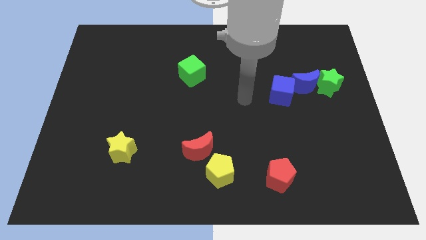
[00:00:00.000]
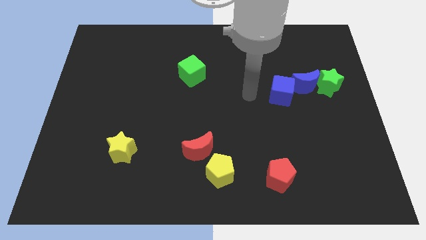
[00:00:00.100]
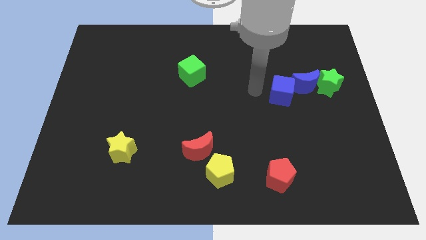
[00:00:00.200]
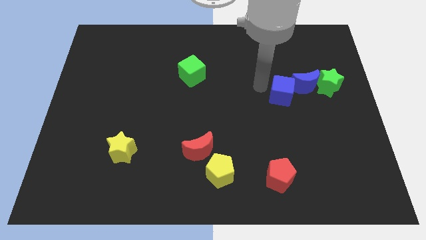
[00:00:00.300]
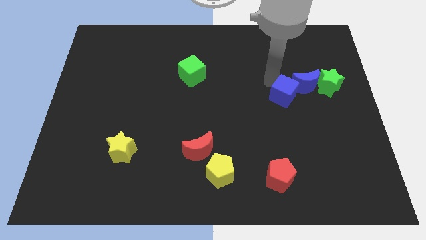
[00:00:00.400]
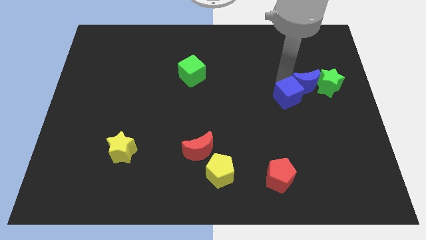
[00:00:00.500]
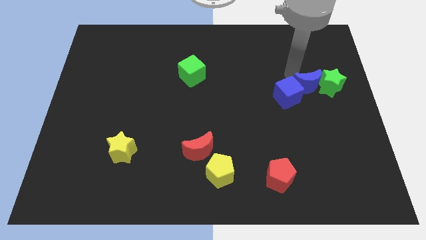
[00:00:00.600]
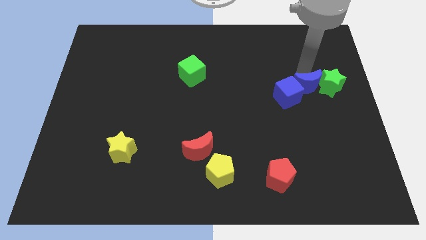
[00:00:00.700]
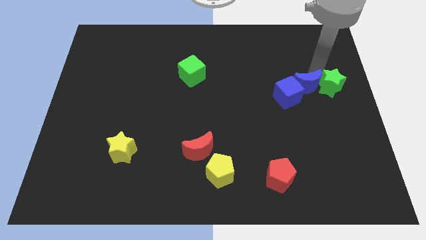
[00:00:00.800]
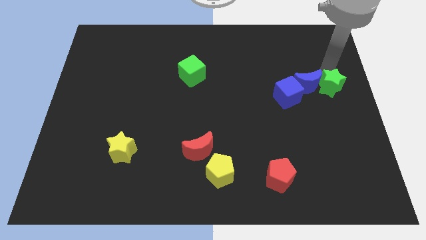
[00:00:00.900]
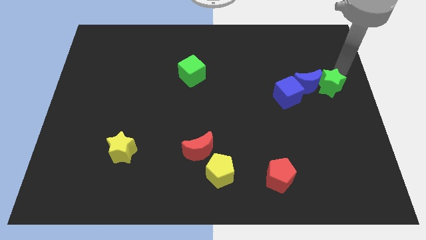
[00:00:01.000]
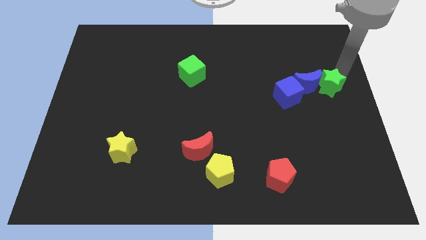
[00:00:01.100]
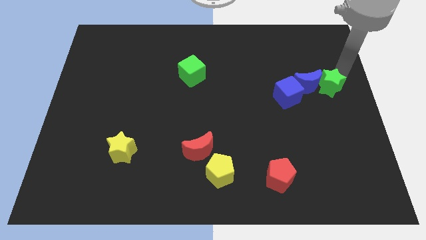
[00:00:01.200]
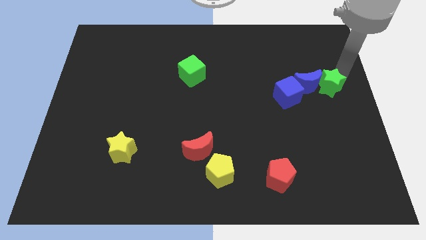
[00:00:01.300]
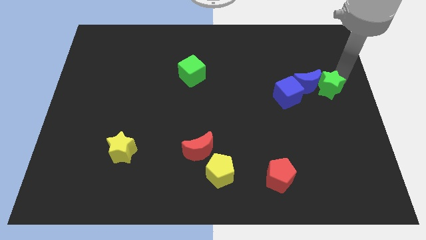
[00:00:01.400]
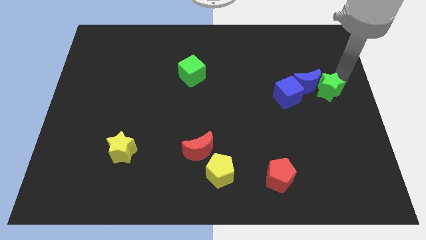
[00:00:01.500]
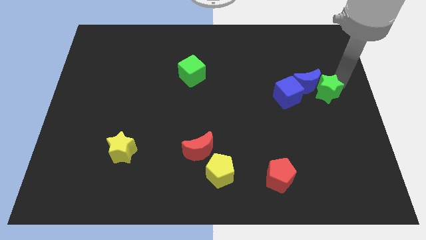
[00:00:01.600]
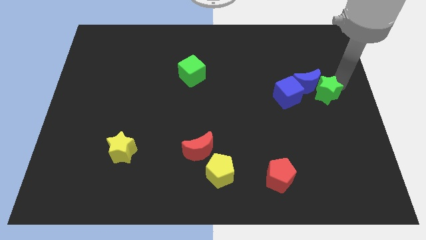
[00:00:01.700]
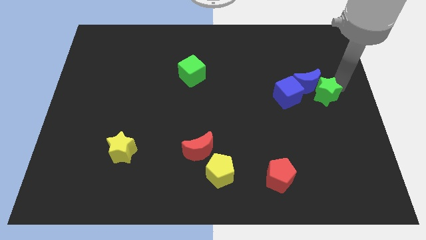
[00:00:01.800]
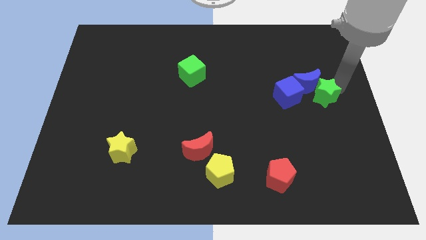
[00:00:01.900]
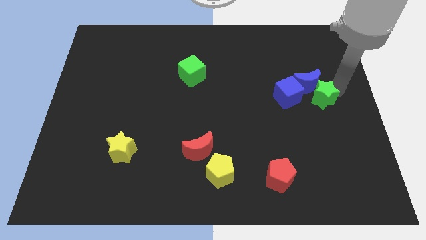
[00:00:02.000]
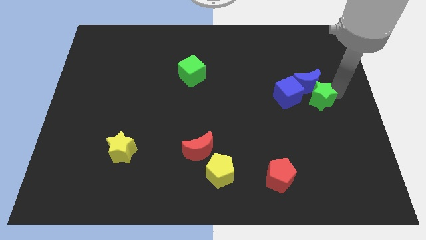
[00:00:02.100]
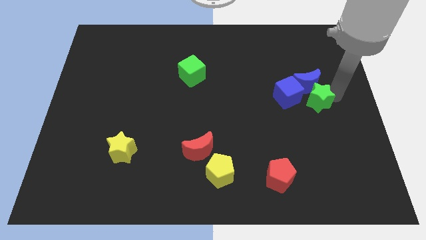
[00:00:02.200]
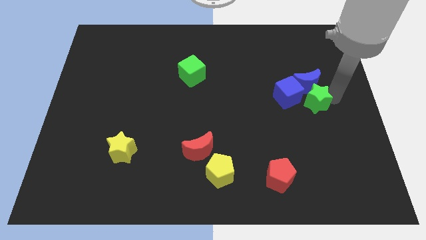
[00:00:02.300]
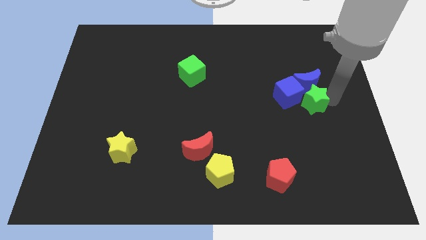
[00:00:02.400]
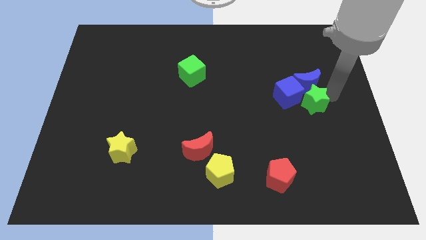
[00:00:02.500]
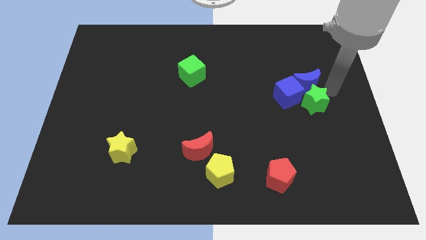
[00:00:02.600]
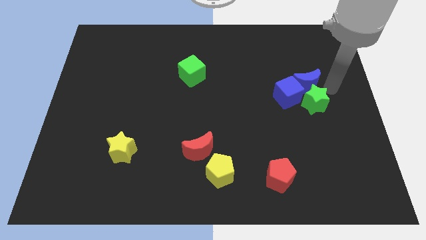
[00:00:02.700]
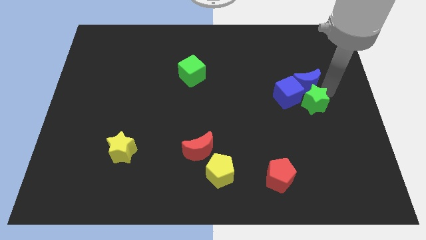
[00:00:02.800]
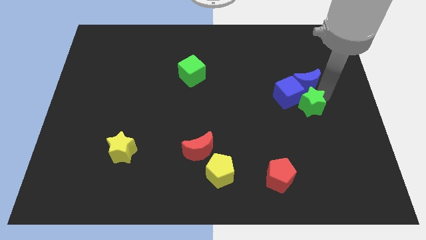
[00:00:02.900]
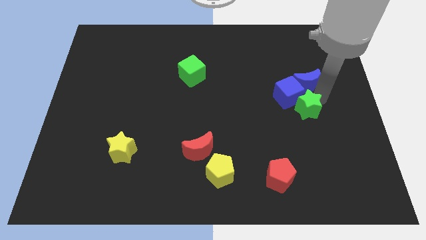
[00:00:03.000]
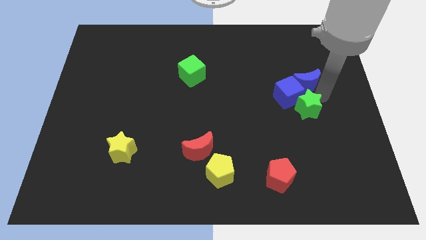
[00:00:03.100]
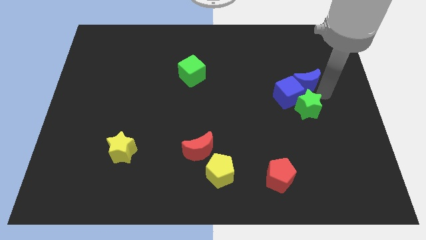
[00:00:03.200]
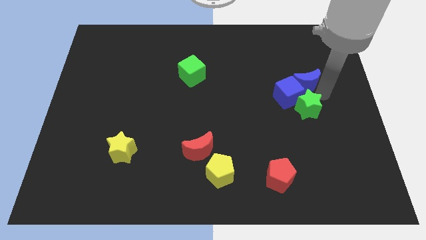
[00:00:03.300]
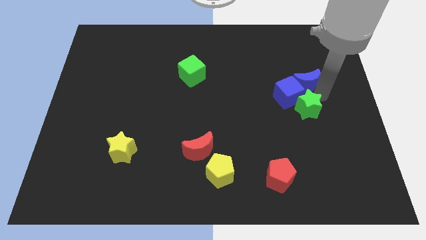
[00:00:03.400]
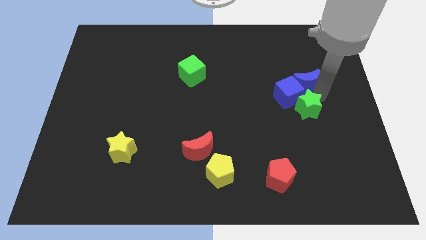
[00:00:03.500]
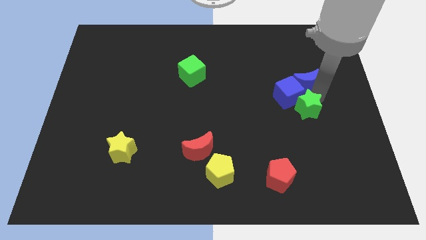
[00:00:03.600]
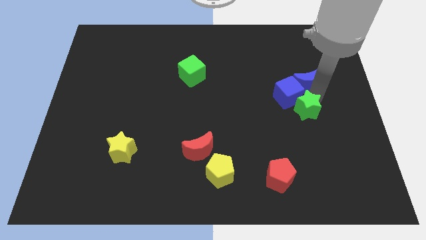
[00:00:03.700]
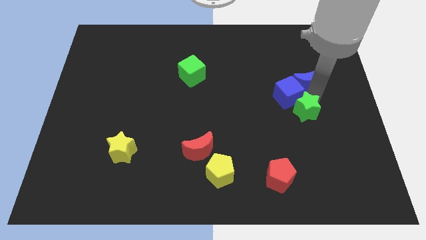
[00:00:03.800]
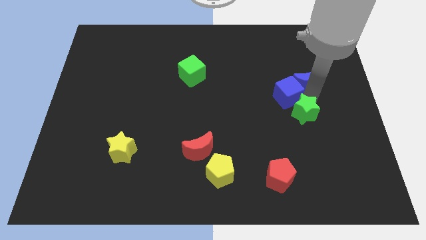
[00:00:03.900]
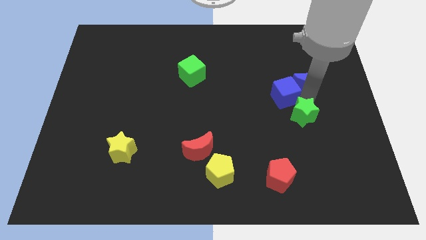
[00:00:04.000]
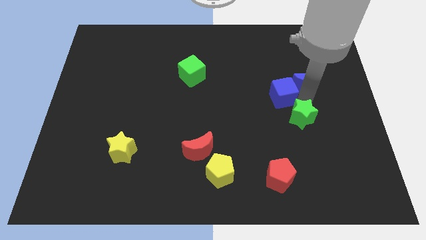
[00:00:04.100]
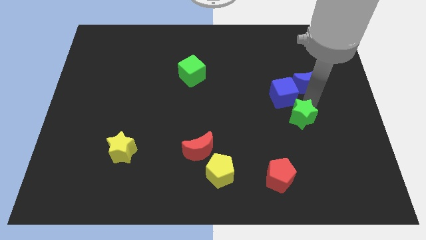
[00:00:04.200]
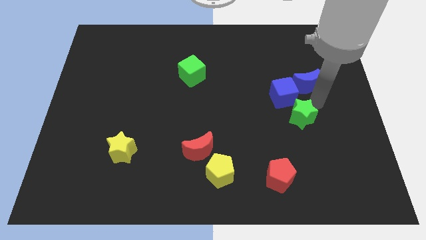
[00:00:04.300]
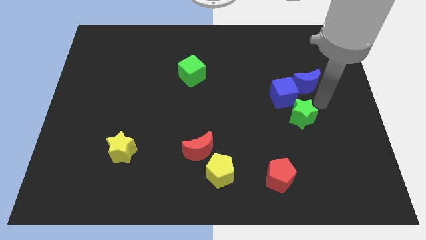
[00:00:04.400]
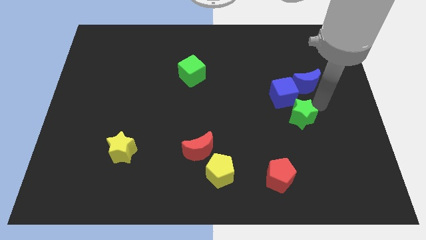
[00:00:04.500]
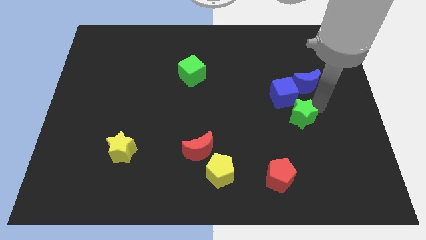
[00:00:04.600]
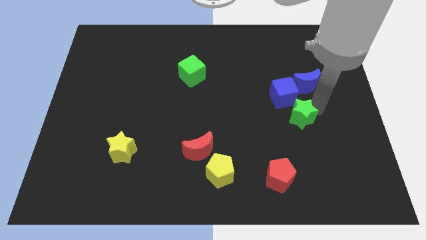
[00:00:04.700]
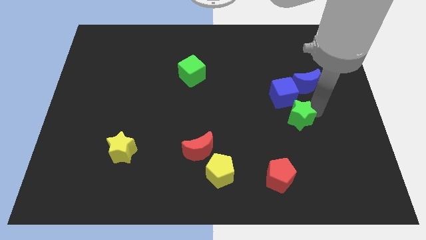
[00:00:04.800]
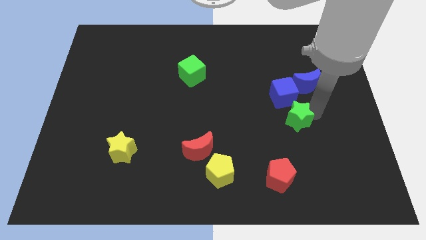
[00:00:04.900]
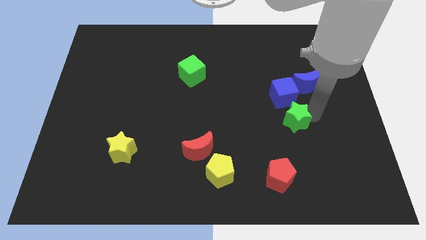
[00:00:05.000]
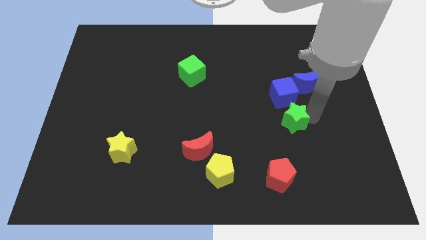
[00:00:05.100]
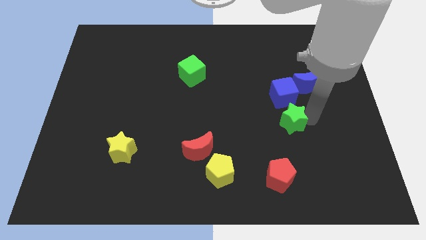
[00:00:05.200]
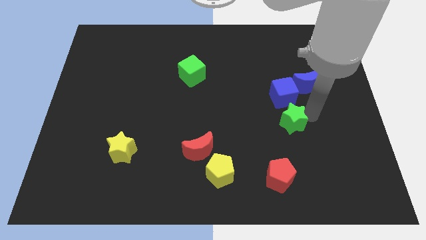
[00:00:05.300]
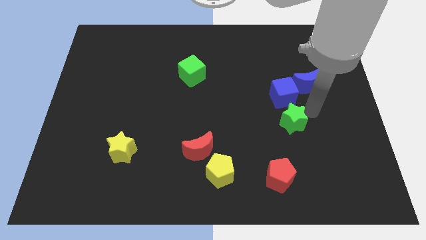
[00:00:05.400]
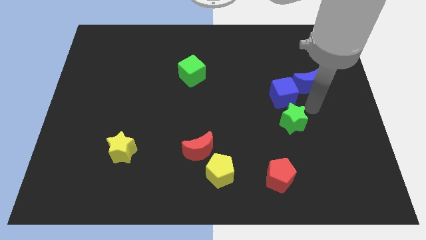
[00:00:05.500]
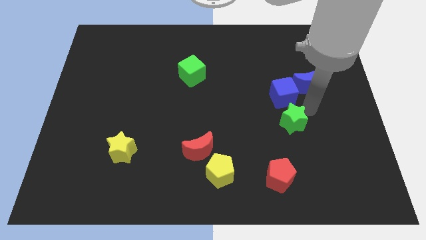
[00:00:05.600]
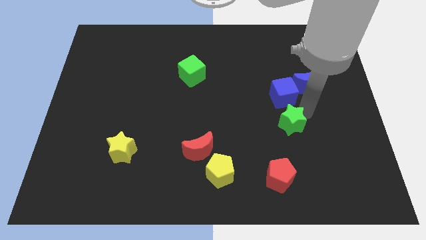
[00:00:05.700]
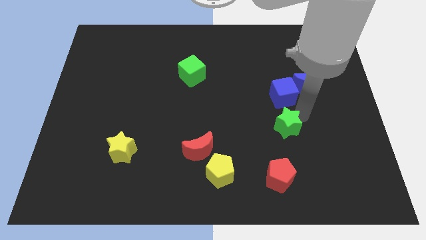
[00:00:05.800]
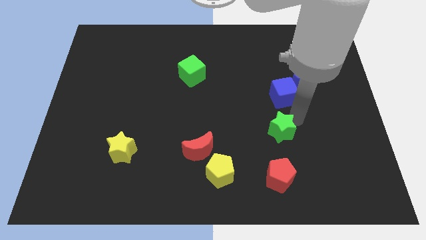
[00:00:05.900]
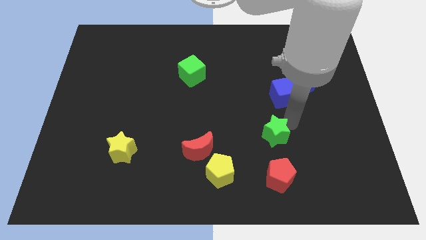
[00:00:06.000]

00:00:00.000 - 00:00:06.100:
move the green star diagonally down and to the left

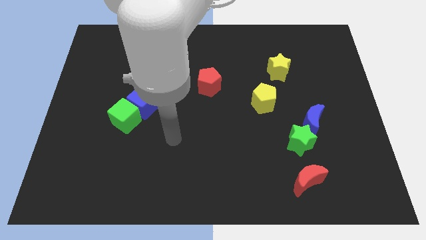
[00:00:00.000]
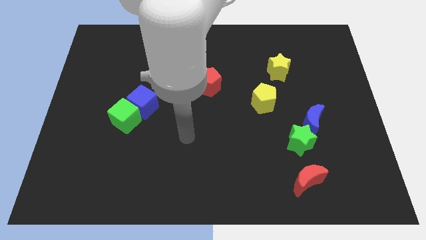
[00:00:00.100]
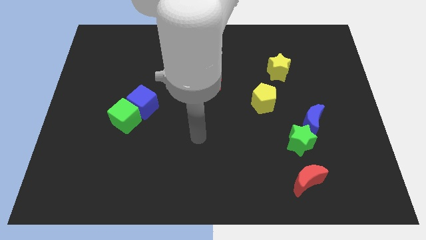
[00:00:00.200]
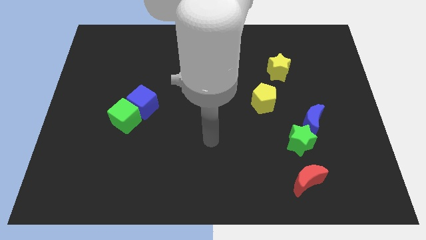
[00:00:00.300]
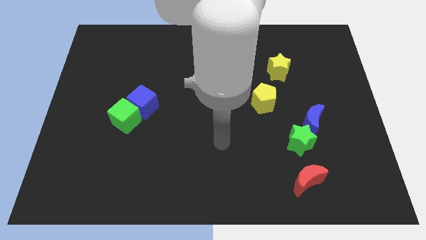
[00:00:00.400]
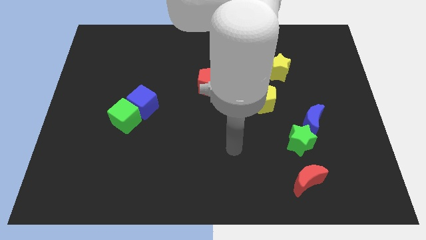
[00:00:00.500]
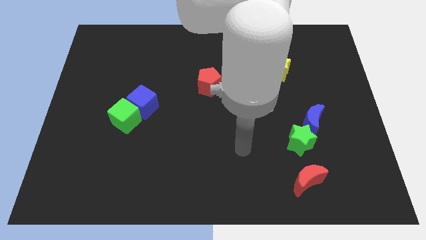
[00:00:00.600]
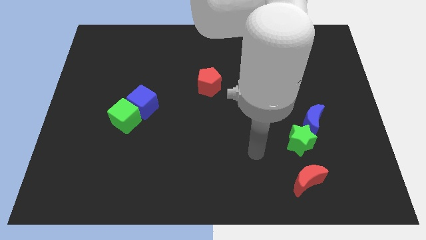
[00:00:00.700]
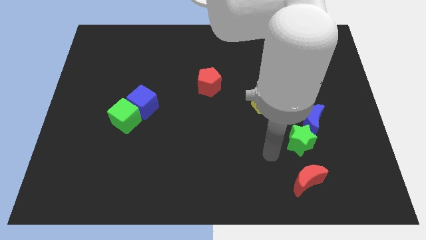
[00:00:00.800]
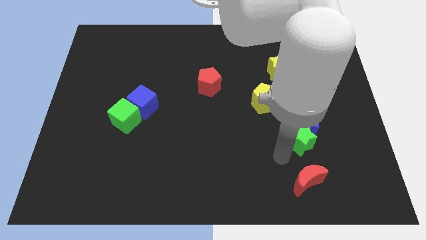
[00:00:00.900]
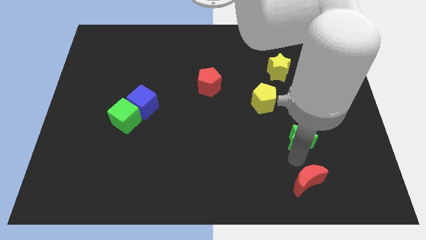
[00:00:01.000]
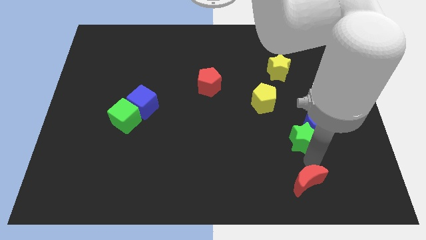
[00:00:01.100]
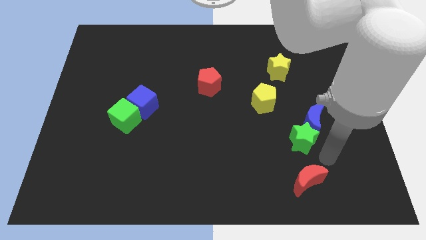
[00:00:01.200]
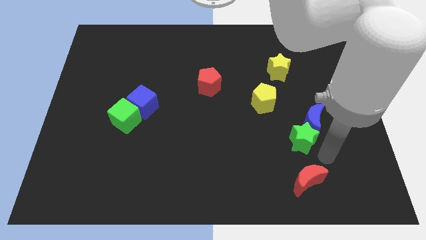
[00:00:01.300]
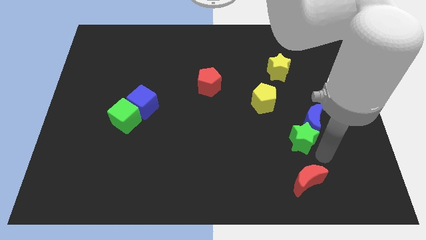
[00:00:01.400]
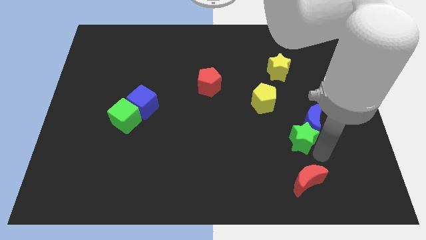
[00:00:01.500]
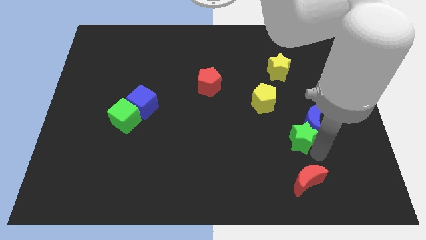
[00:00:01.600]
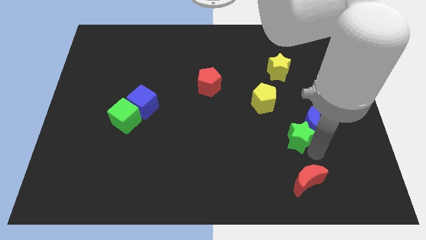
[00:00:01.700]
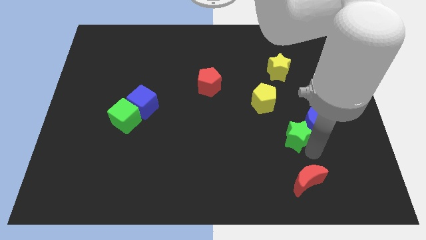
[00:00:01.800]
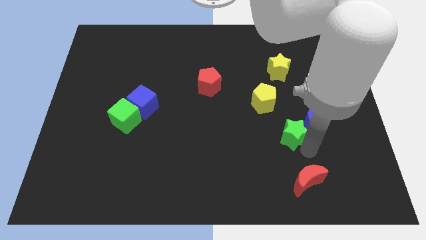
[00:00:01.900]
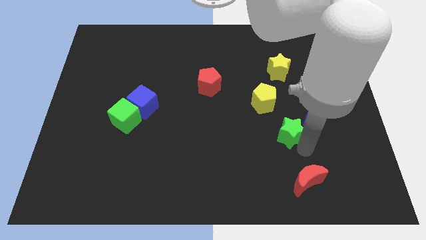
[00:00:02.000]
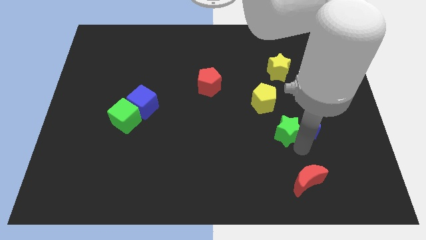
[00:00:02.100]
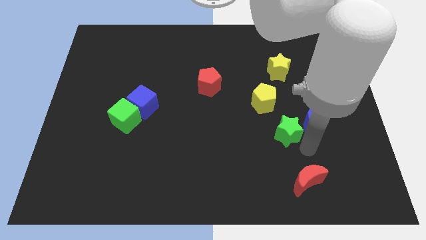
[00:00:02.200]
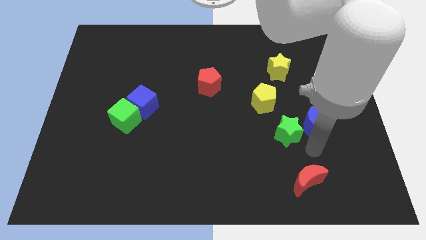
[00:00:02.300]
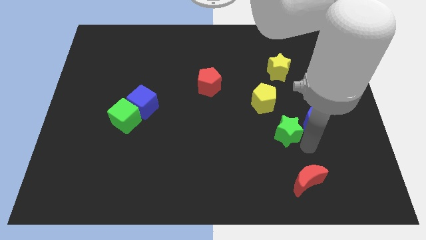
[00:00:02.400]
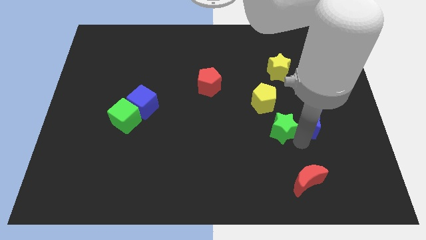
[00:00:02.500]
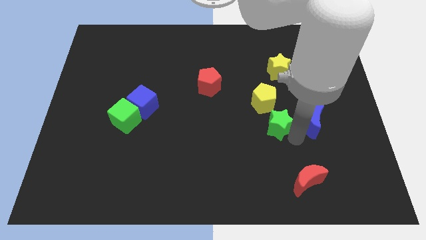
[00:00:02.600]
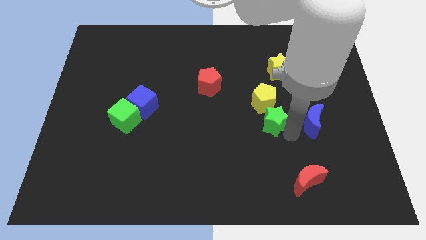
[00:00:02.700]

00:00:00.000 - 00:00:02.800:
slightly push the green star up and then left
